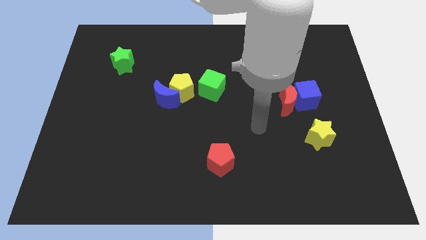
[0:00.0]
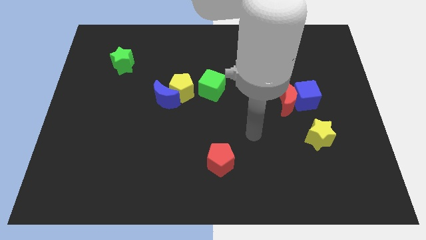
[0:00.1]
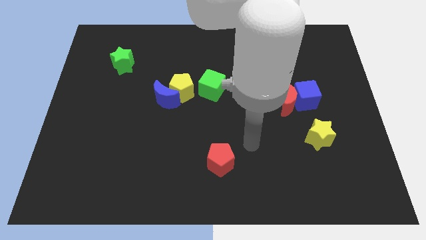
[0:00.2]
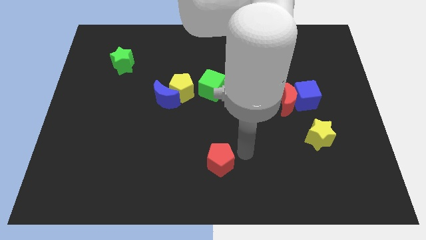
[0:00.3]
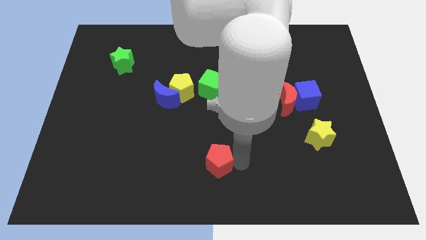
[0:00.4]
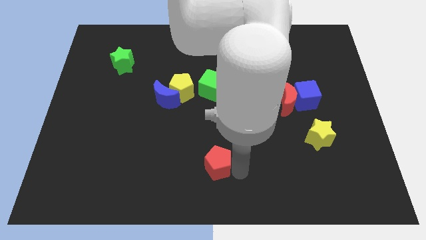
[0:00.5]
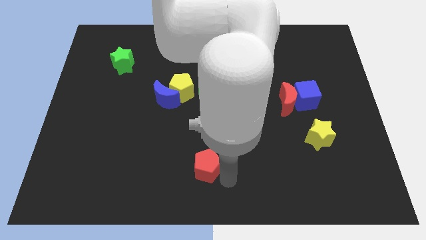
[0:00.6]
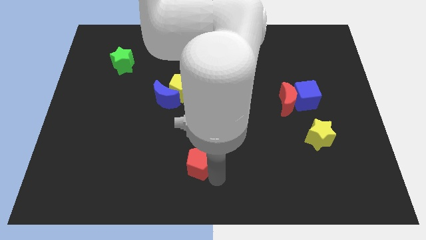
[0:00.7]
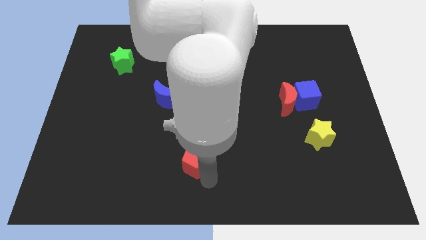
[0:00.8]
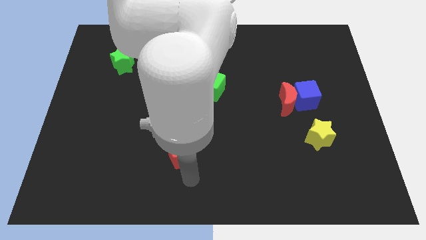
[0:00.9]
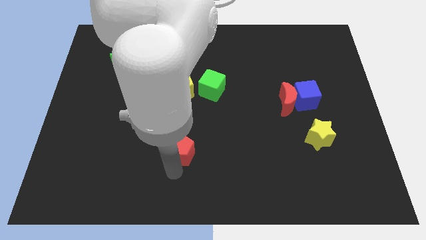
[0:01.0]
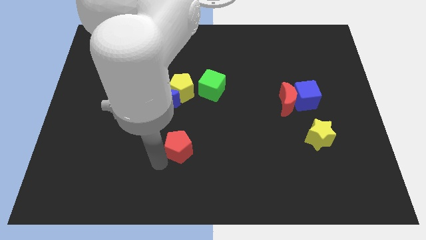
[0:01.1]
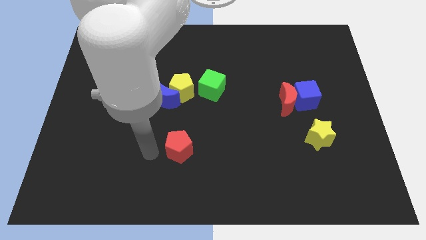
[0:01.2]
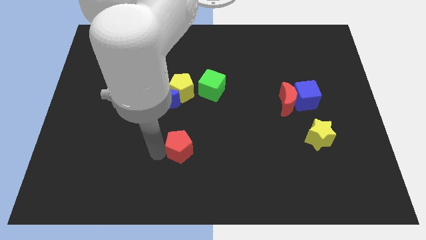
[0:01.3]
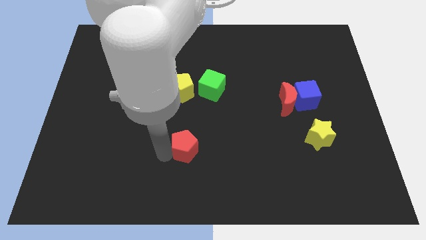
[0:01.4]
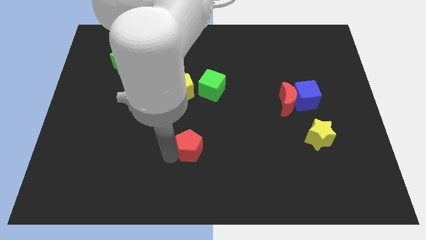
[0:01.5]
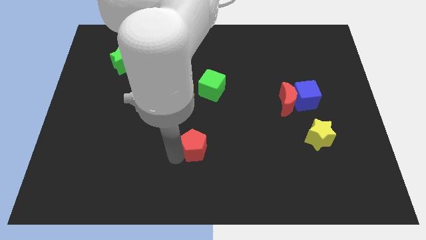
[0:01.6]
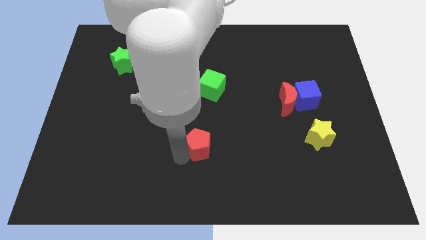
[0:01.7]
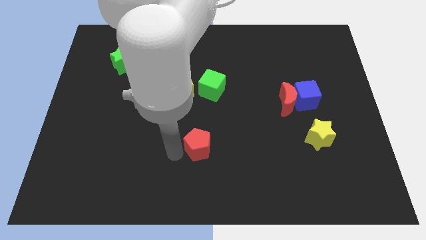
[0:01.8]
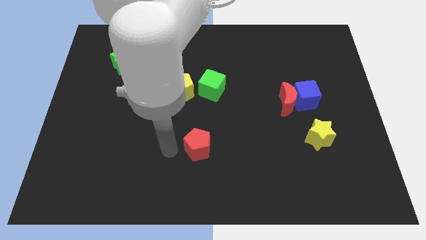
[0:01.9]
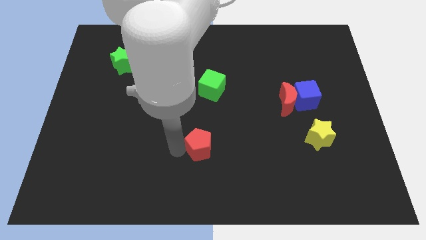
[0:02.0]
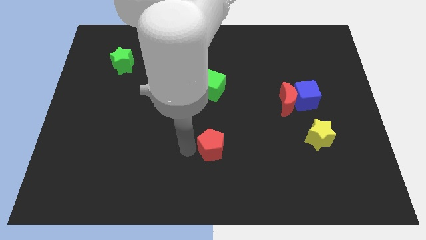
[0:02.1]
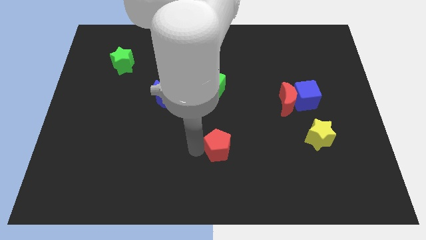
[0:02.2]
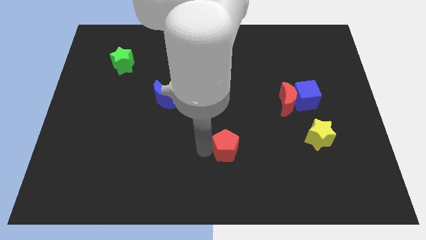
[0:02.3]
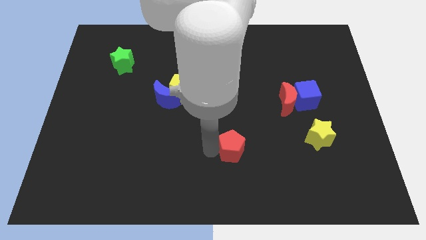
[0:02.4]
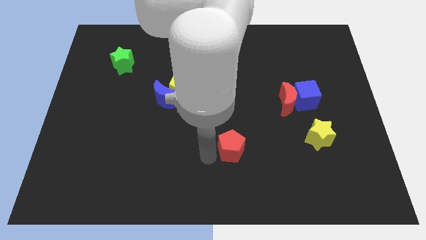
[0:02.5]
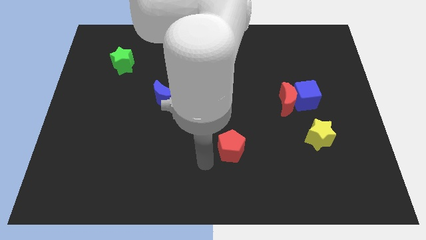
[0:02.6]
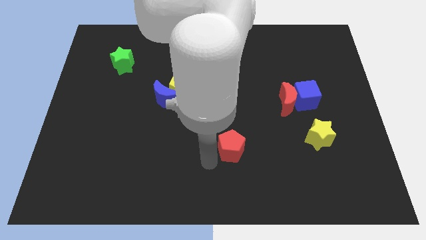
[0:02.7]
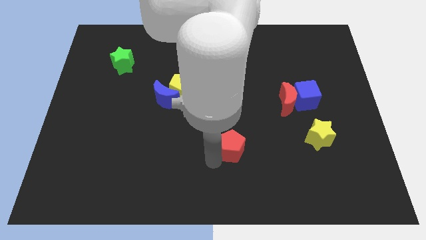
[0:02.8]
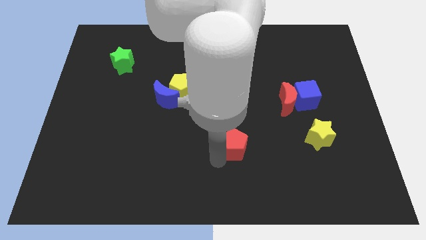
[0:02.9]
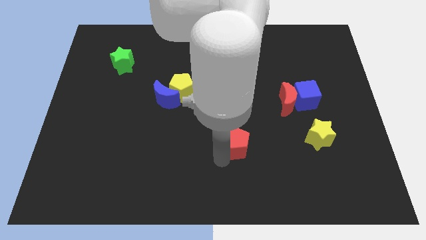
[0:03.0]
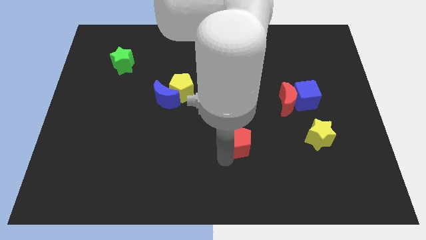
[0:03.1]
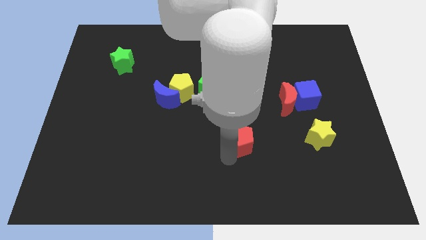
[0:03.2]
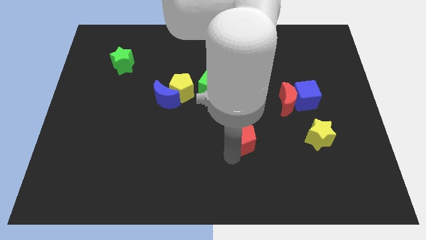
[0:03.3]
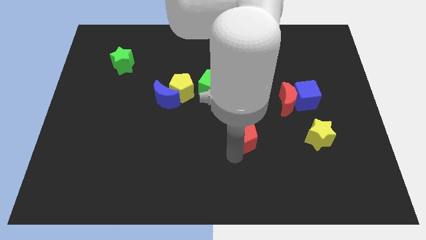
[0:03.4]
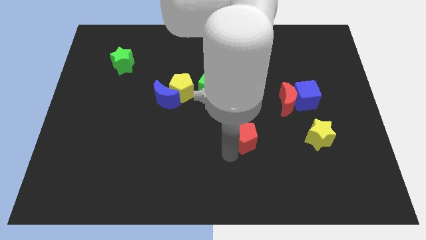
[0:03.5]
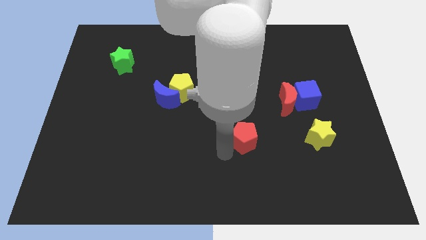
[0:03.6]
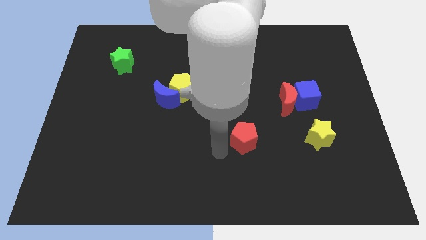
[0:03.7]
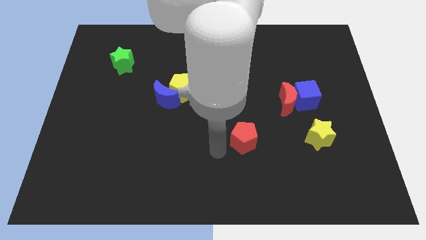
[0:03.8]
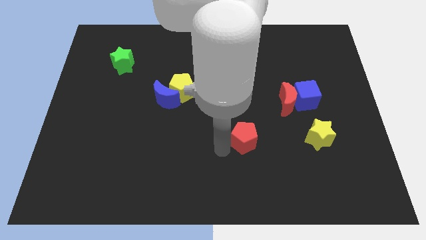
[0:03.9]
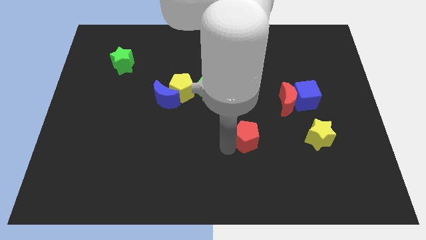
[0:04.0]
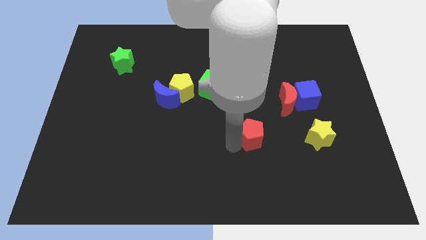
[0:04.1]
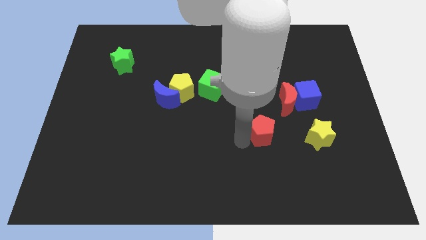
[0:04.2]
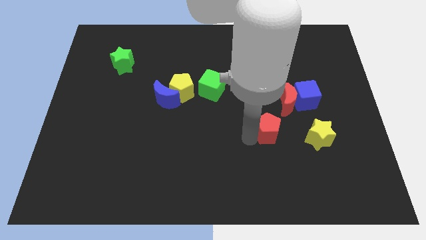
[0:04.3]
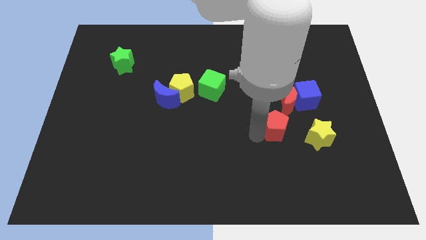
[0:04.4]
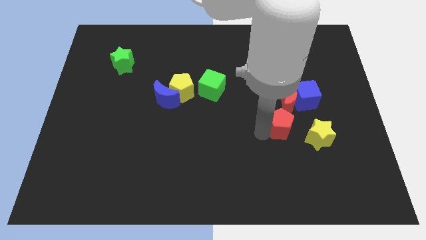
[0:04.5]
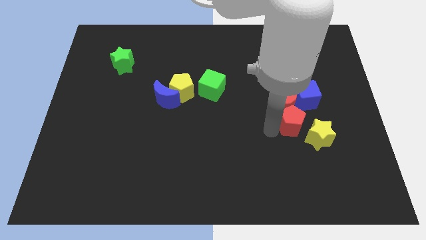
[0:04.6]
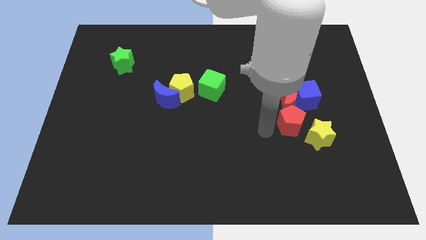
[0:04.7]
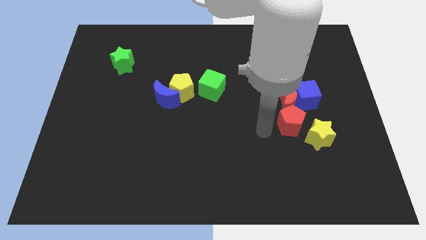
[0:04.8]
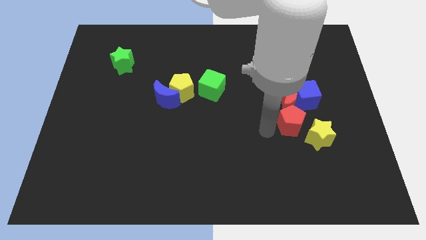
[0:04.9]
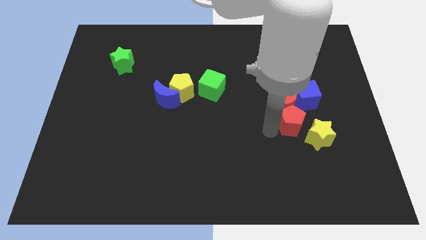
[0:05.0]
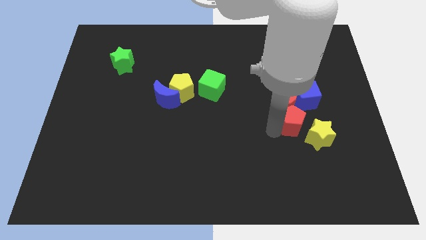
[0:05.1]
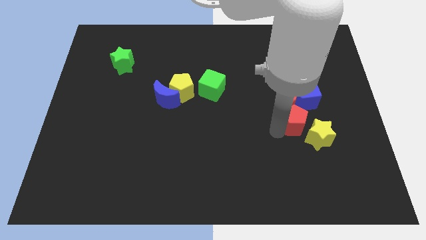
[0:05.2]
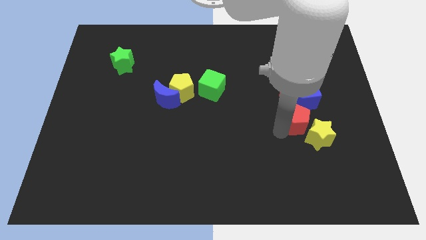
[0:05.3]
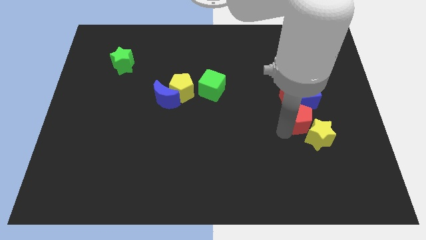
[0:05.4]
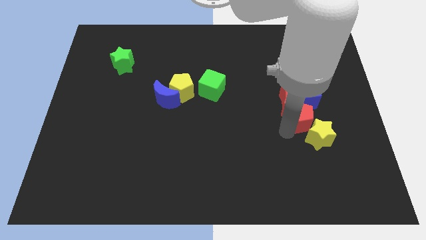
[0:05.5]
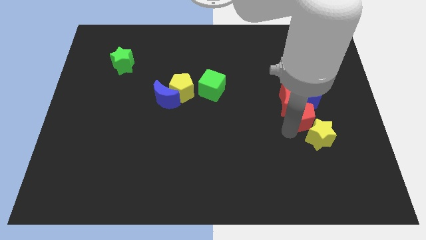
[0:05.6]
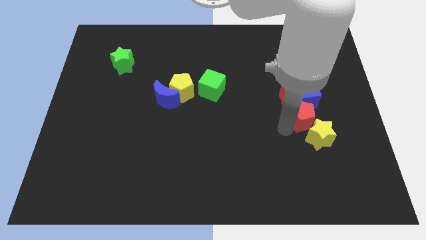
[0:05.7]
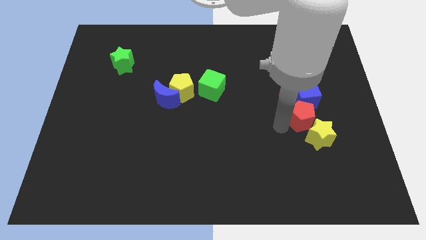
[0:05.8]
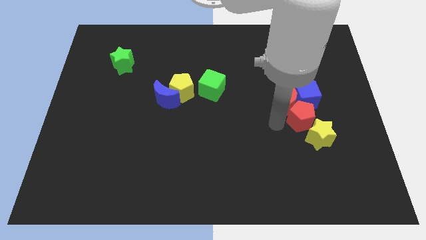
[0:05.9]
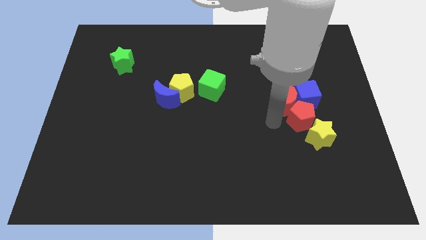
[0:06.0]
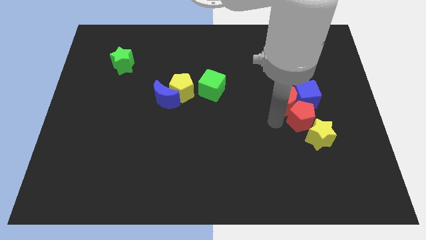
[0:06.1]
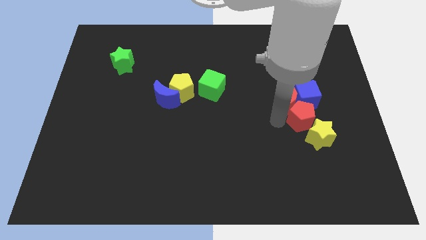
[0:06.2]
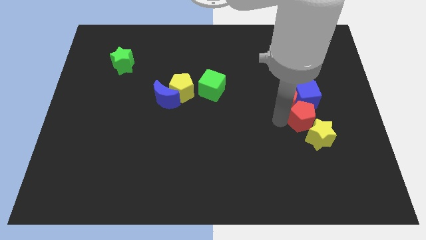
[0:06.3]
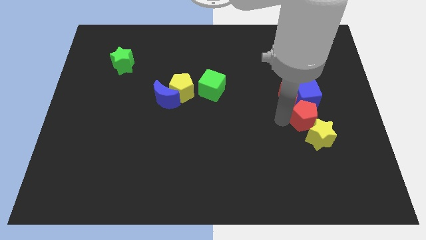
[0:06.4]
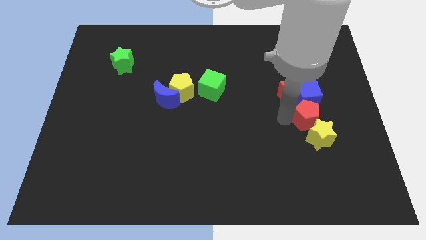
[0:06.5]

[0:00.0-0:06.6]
slide the red pentagon diagonally down and to the right of the blue cube

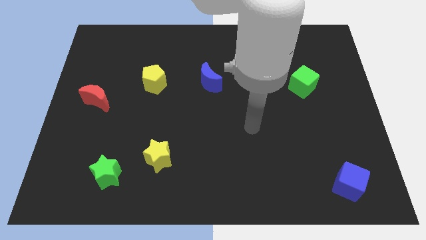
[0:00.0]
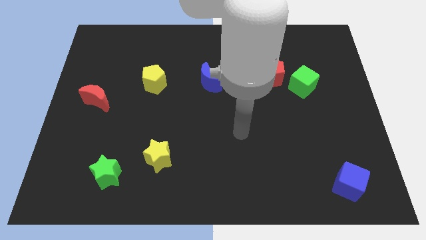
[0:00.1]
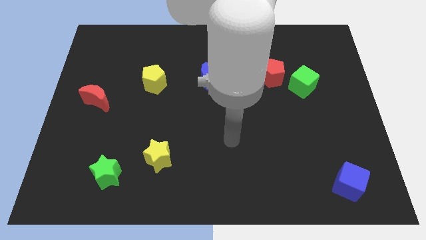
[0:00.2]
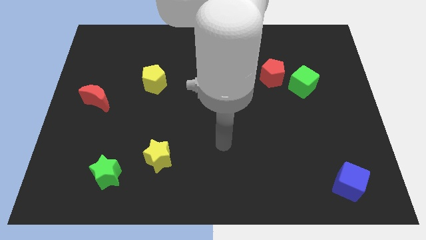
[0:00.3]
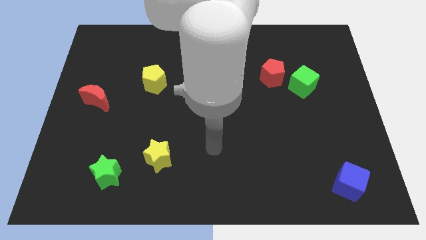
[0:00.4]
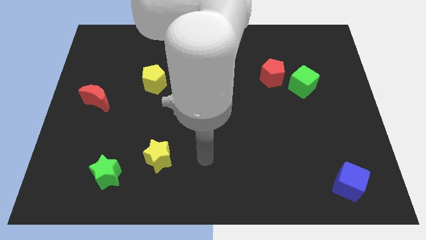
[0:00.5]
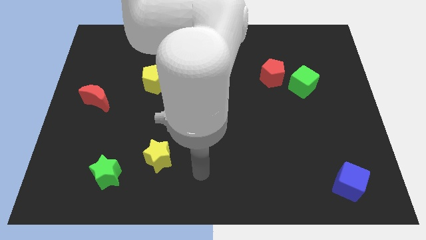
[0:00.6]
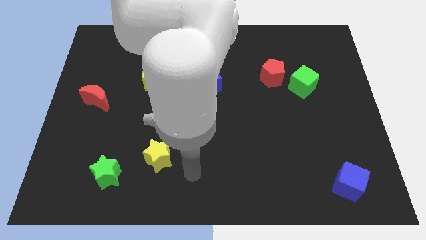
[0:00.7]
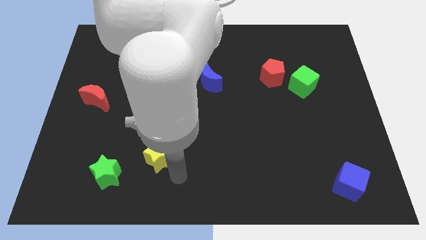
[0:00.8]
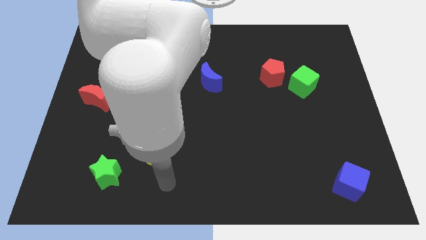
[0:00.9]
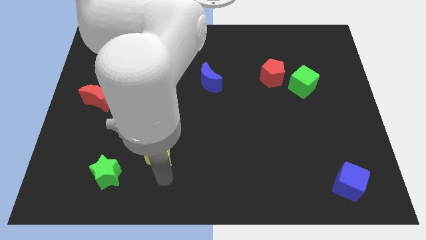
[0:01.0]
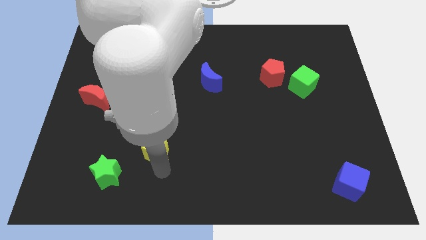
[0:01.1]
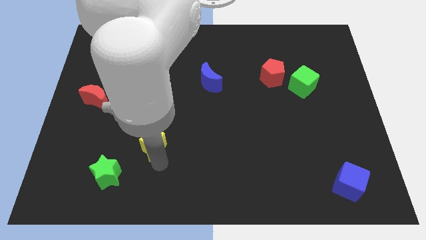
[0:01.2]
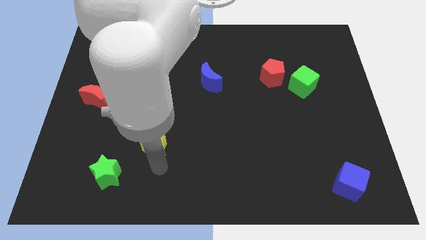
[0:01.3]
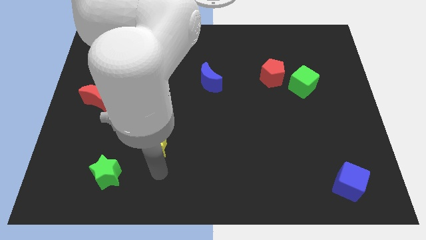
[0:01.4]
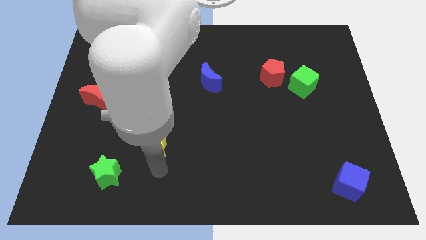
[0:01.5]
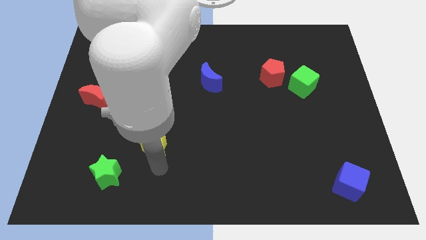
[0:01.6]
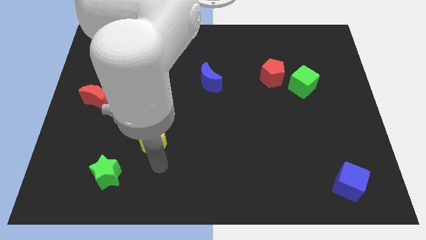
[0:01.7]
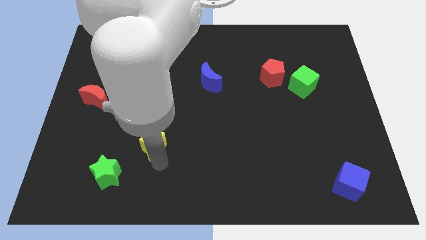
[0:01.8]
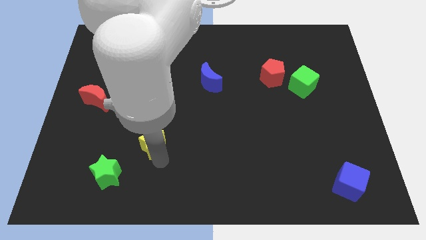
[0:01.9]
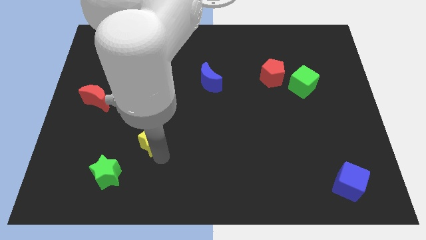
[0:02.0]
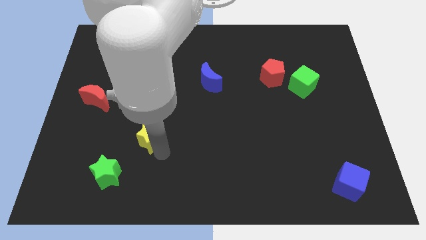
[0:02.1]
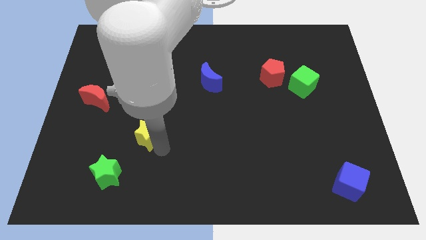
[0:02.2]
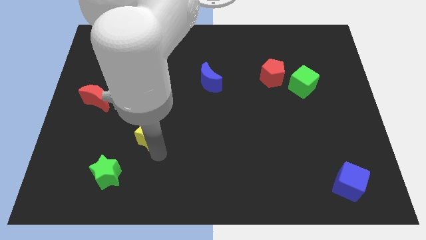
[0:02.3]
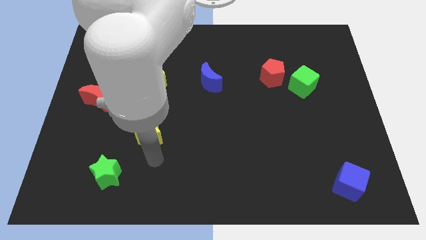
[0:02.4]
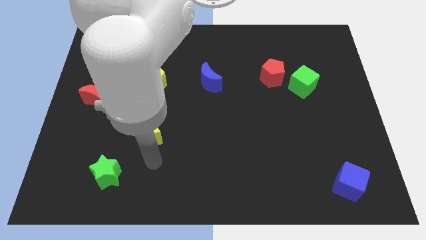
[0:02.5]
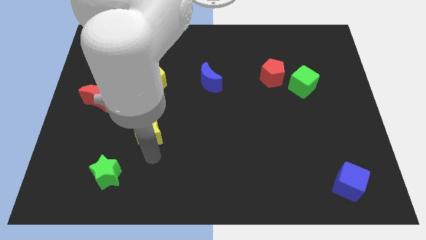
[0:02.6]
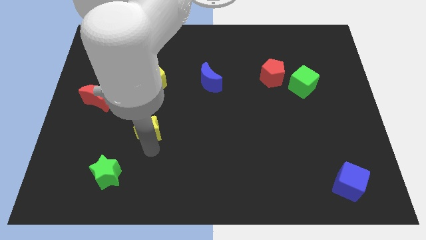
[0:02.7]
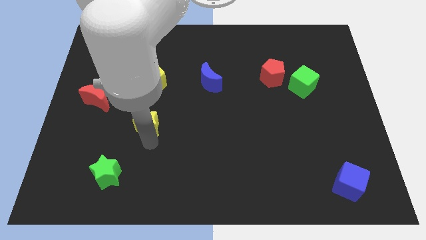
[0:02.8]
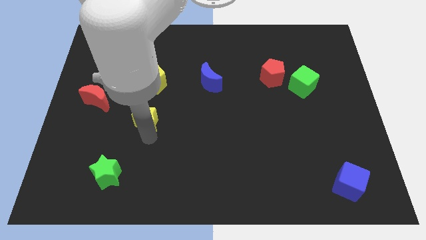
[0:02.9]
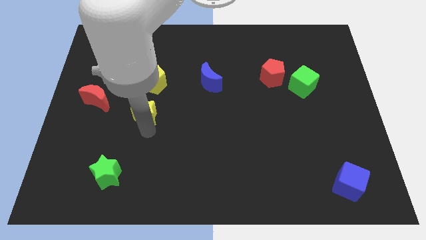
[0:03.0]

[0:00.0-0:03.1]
put the yellow star to the right side of the red moon
